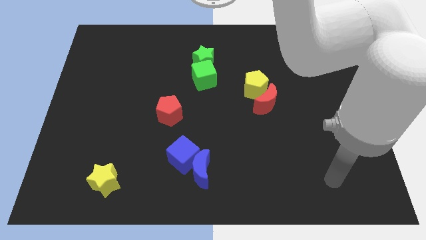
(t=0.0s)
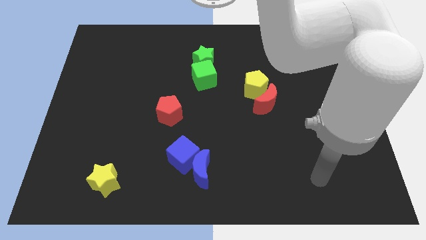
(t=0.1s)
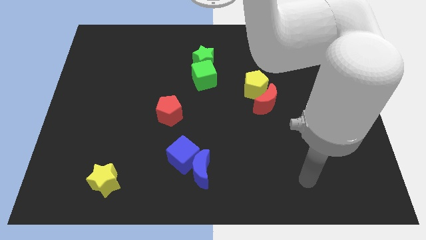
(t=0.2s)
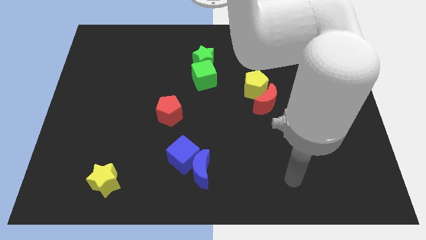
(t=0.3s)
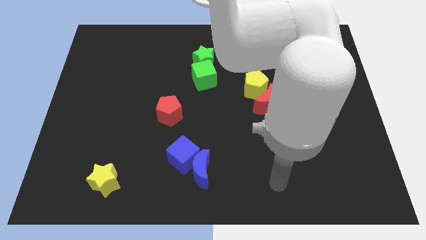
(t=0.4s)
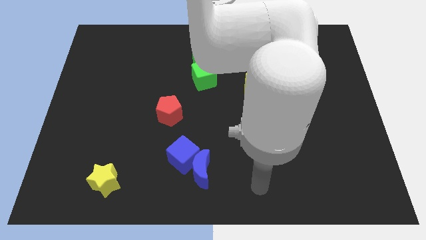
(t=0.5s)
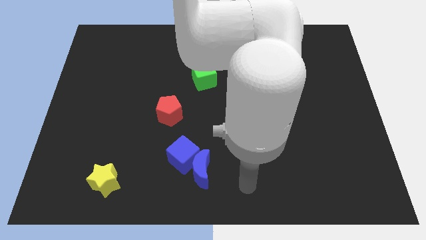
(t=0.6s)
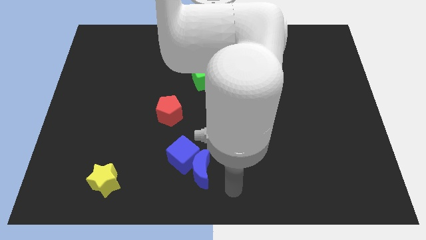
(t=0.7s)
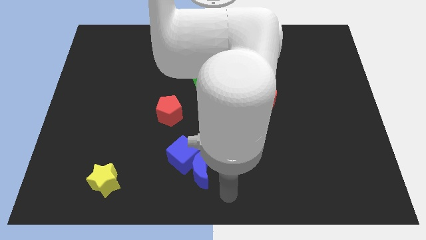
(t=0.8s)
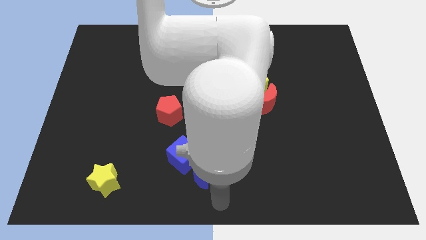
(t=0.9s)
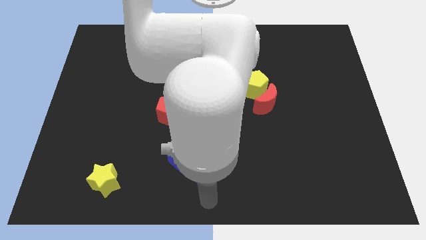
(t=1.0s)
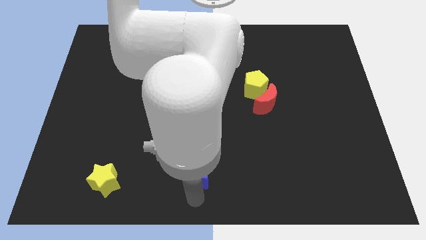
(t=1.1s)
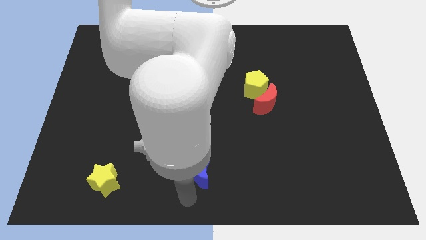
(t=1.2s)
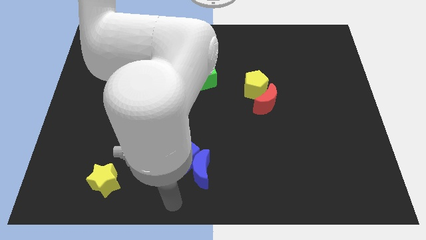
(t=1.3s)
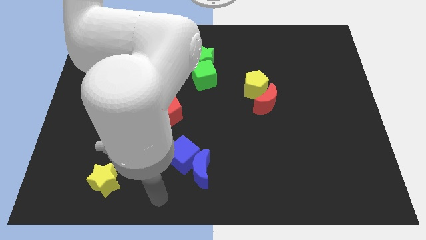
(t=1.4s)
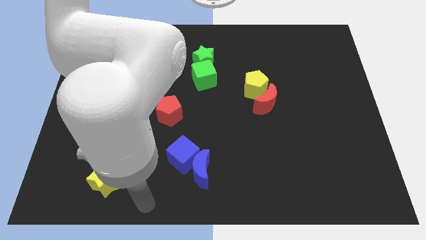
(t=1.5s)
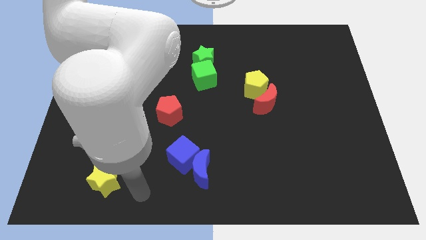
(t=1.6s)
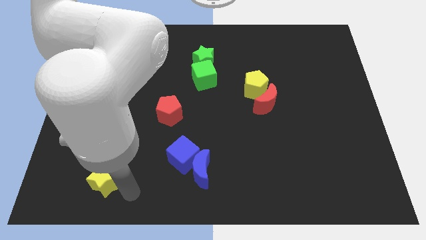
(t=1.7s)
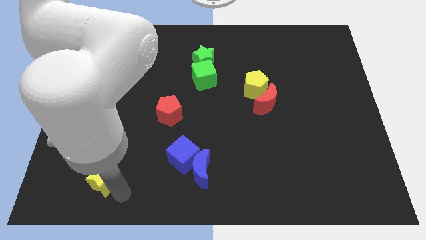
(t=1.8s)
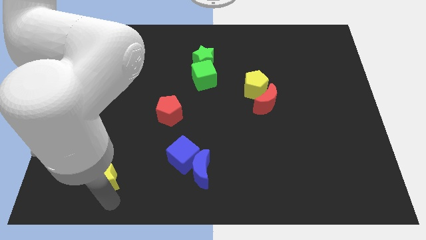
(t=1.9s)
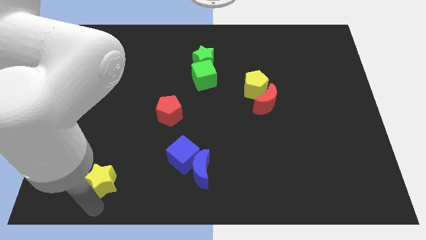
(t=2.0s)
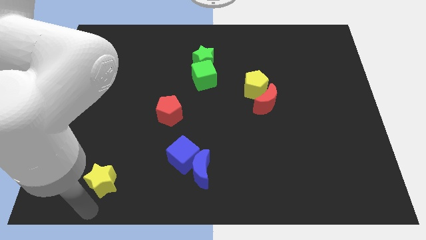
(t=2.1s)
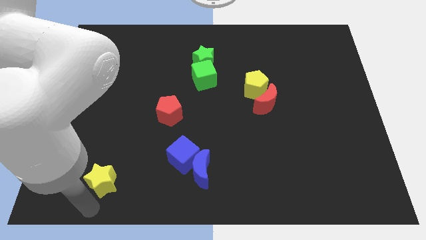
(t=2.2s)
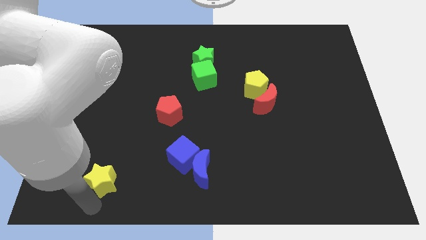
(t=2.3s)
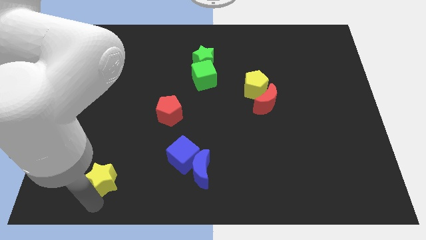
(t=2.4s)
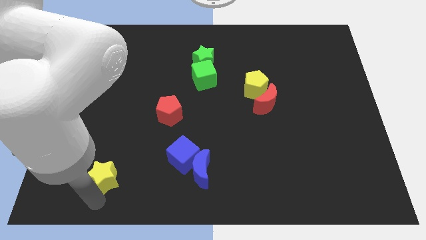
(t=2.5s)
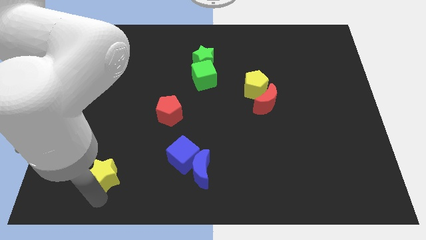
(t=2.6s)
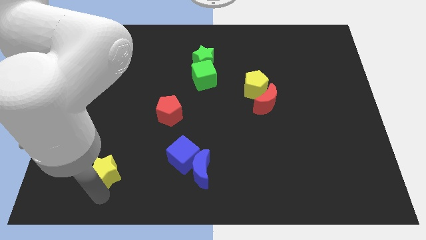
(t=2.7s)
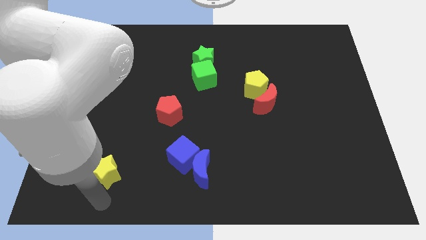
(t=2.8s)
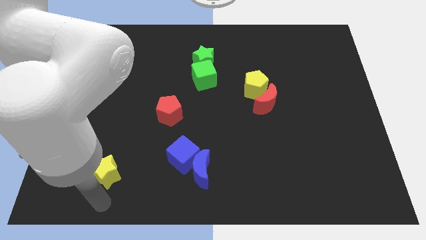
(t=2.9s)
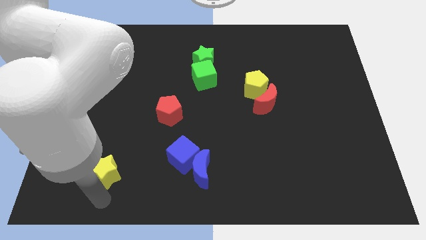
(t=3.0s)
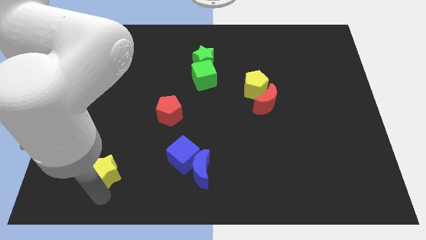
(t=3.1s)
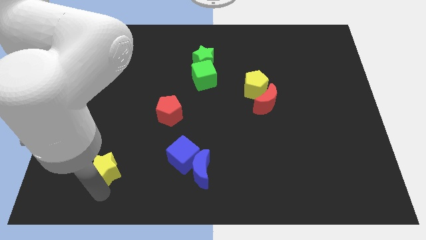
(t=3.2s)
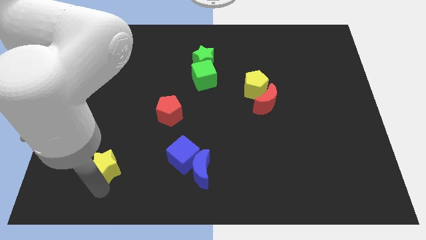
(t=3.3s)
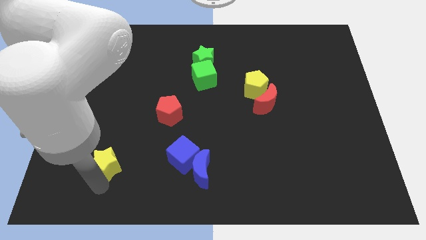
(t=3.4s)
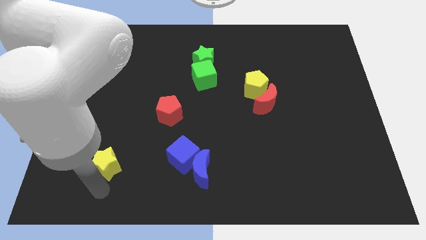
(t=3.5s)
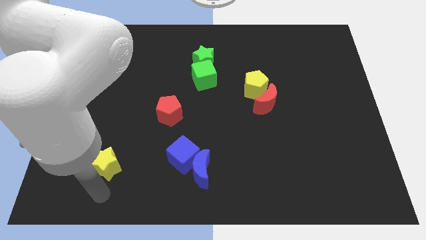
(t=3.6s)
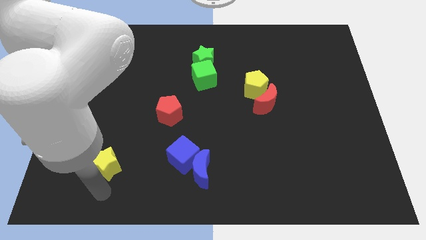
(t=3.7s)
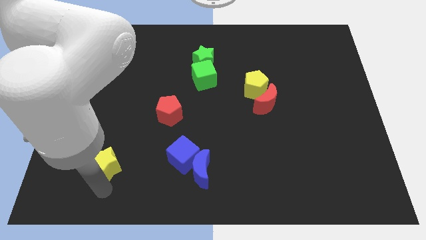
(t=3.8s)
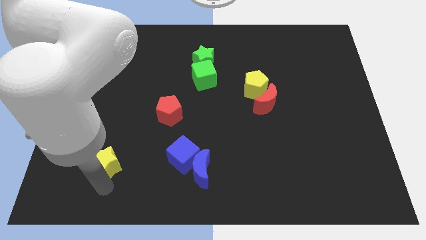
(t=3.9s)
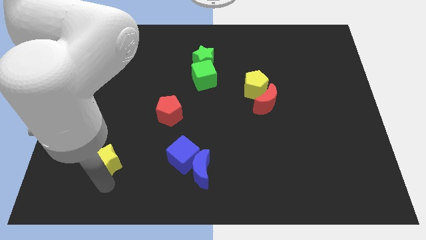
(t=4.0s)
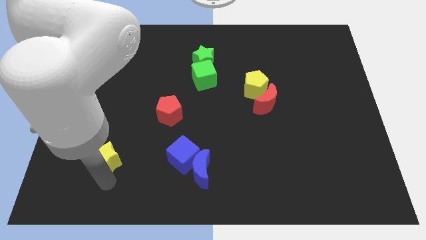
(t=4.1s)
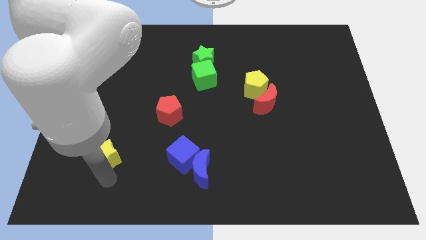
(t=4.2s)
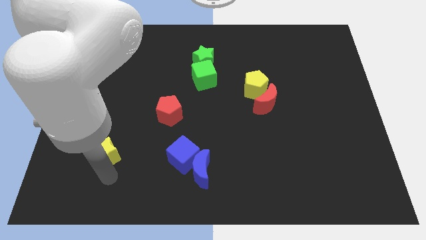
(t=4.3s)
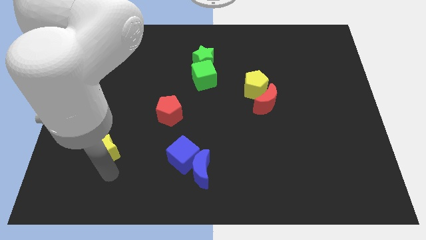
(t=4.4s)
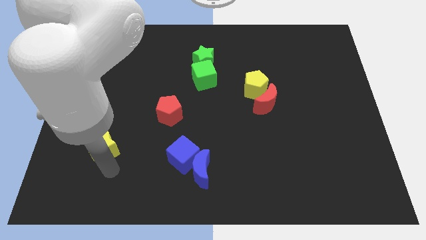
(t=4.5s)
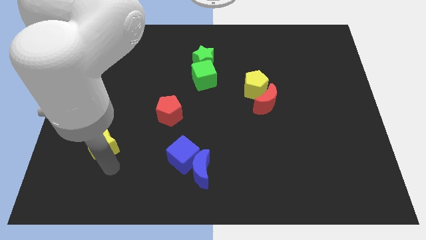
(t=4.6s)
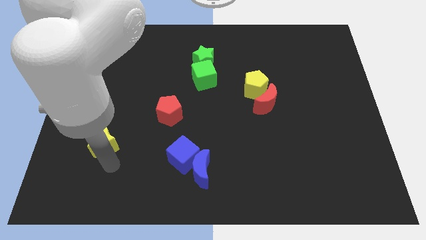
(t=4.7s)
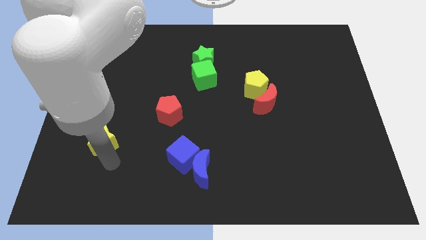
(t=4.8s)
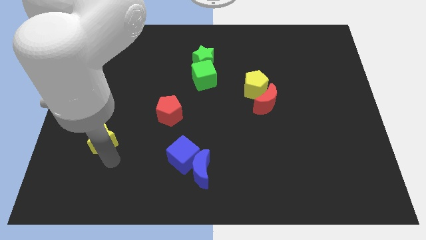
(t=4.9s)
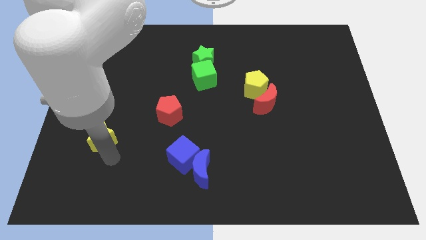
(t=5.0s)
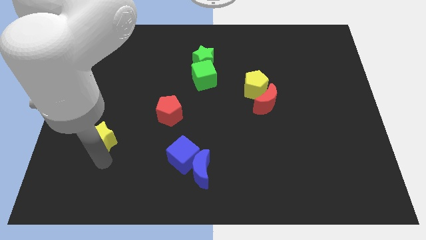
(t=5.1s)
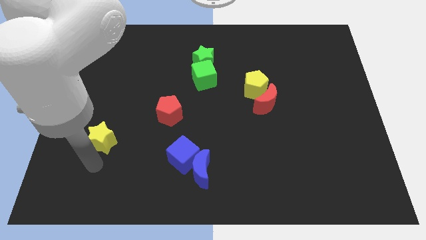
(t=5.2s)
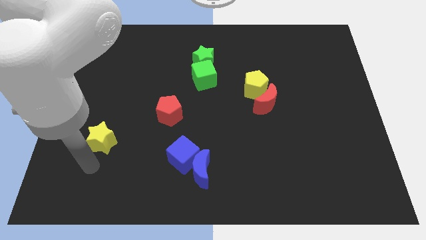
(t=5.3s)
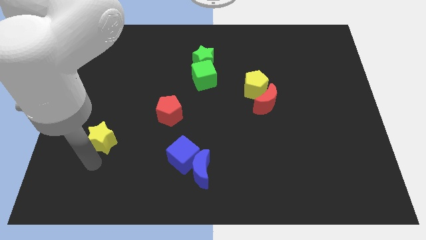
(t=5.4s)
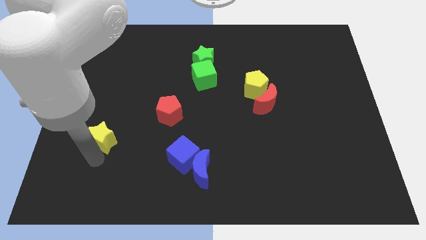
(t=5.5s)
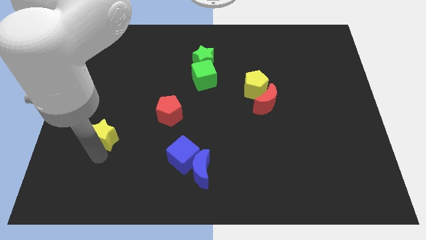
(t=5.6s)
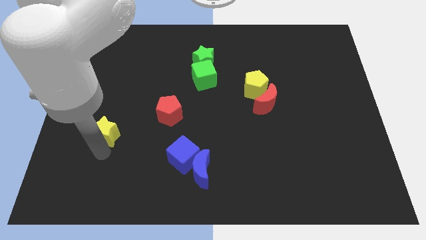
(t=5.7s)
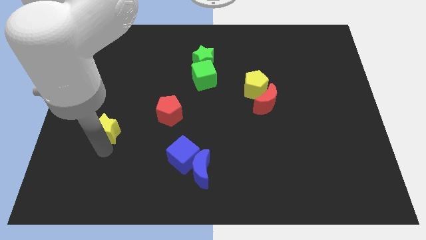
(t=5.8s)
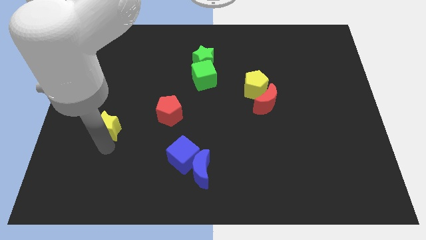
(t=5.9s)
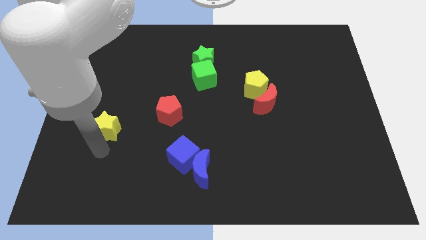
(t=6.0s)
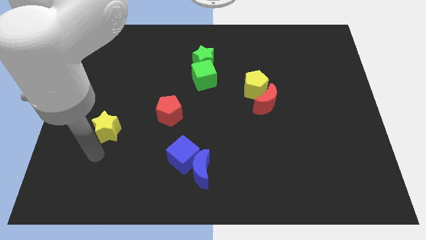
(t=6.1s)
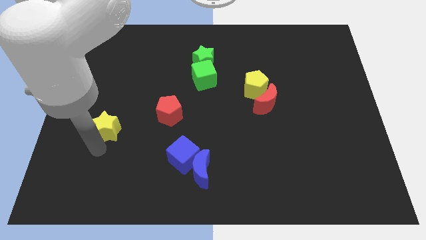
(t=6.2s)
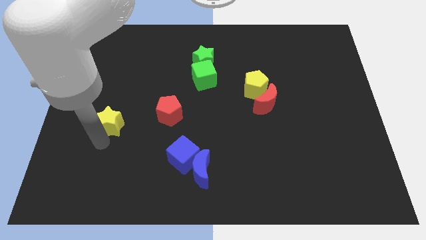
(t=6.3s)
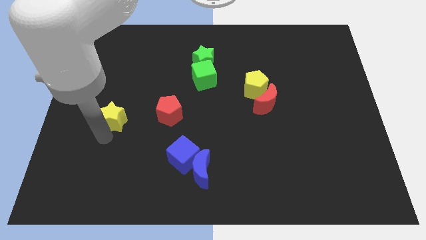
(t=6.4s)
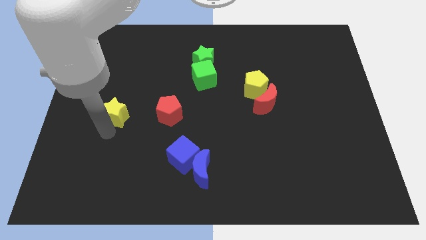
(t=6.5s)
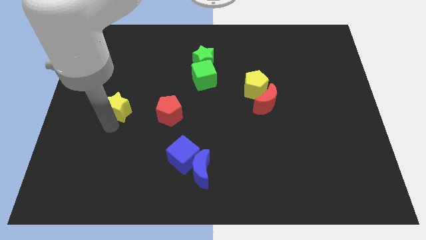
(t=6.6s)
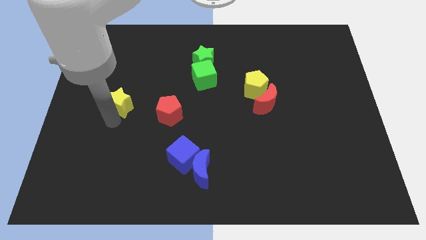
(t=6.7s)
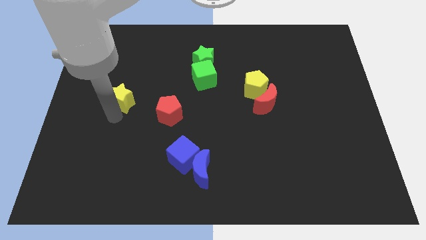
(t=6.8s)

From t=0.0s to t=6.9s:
slide the yellow star upwards

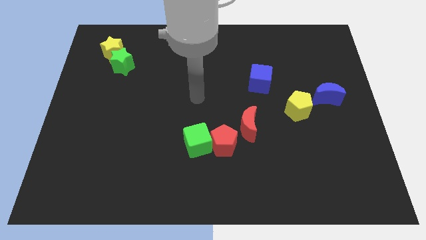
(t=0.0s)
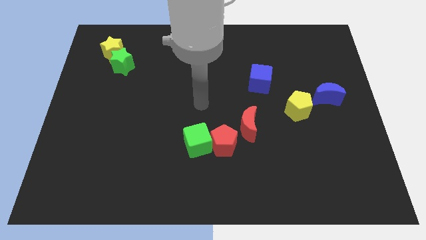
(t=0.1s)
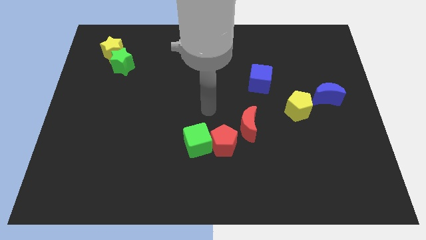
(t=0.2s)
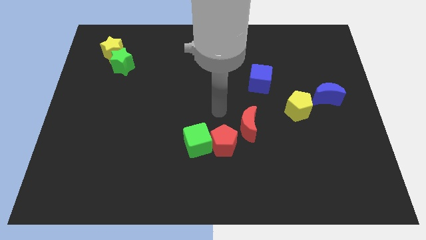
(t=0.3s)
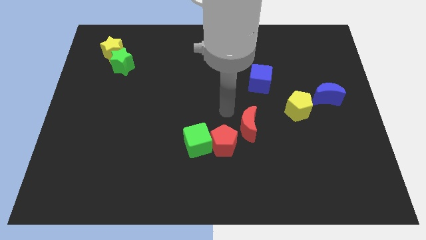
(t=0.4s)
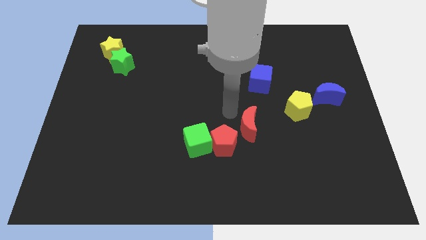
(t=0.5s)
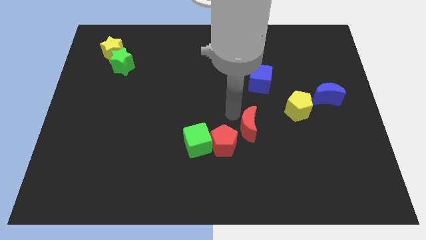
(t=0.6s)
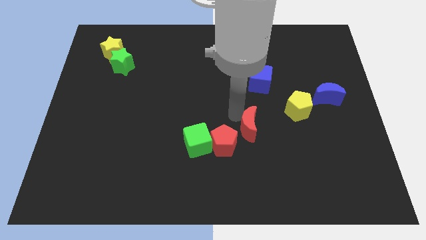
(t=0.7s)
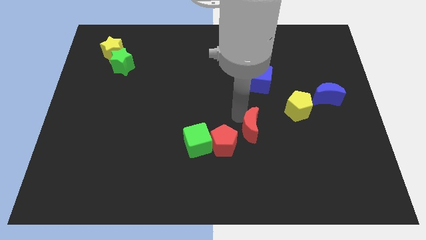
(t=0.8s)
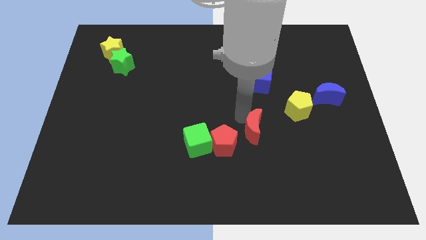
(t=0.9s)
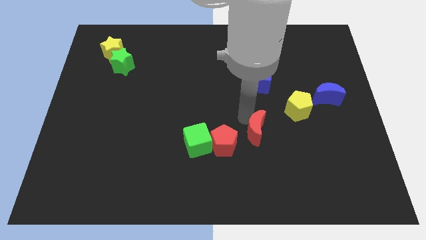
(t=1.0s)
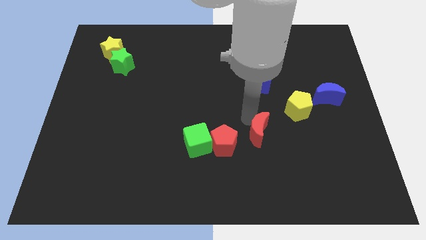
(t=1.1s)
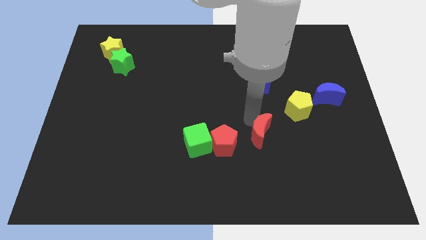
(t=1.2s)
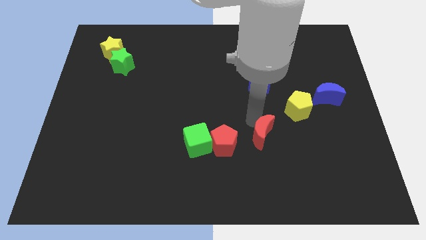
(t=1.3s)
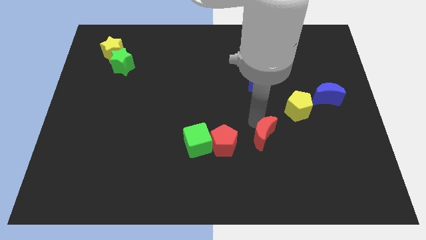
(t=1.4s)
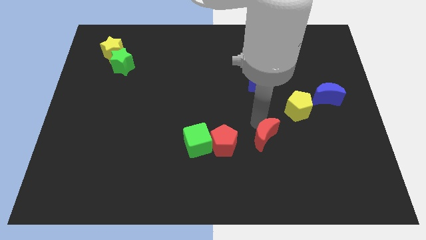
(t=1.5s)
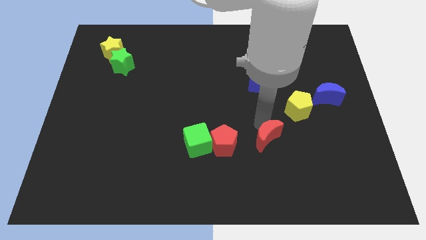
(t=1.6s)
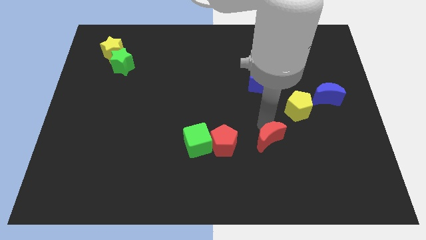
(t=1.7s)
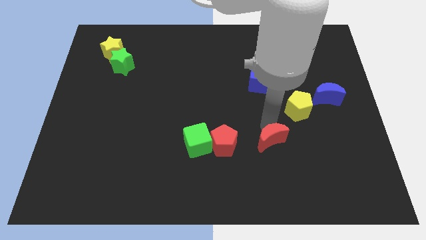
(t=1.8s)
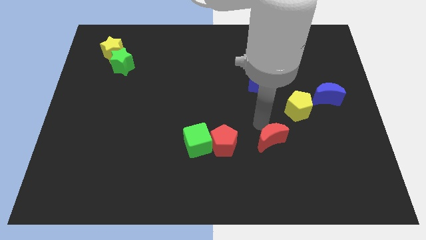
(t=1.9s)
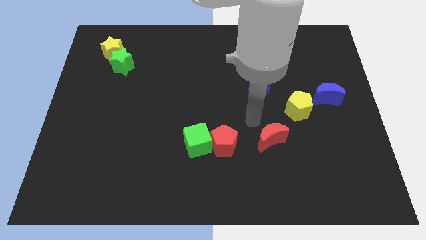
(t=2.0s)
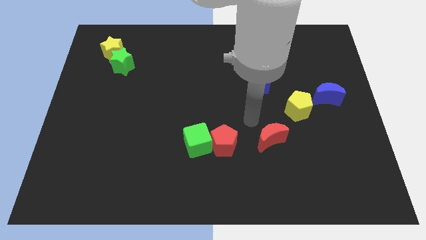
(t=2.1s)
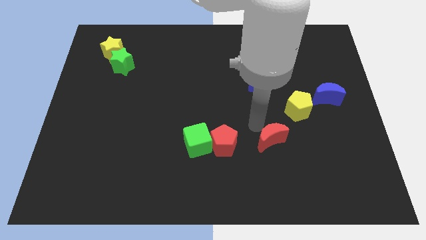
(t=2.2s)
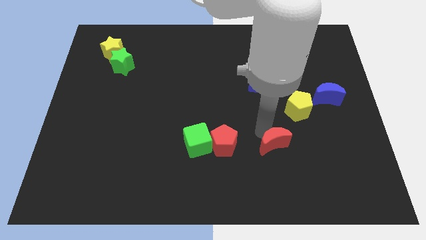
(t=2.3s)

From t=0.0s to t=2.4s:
slide the red moon somewhat down and then to the right
